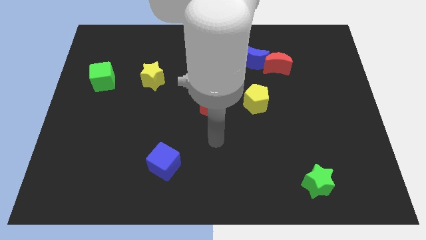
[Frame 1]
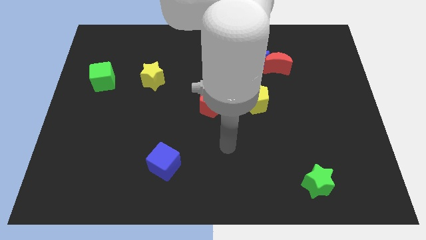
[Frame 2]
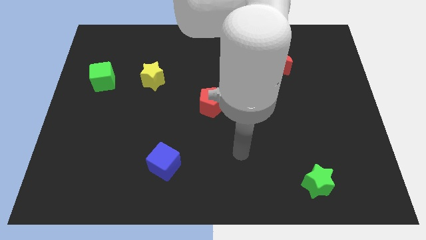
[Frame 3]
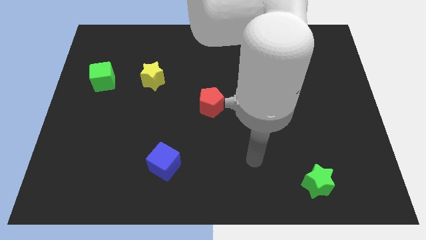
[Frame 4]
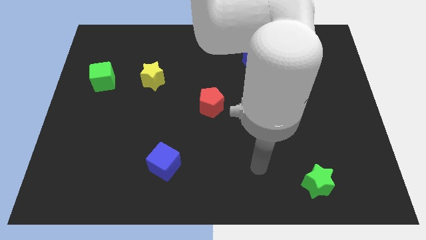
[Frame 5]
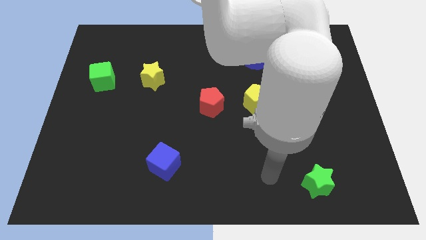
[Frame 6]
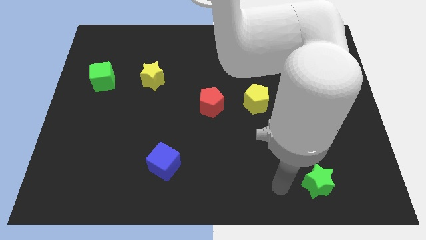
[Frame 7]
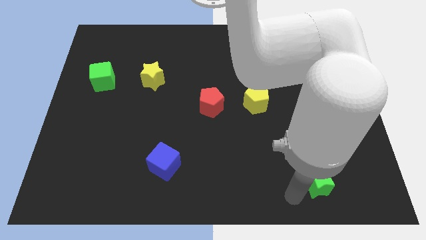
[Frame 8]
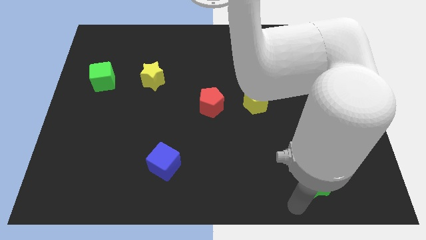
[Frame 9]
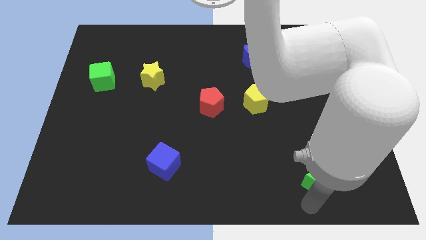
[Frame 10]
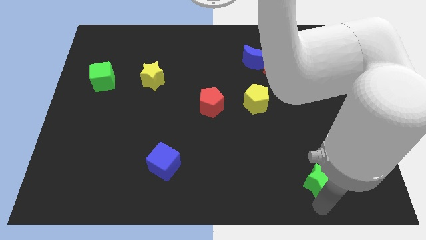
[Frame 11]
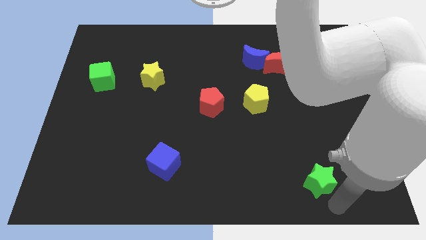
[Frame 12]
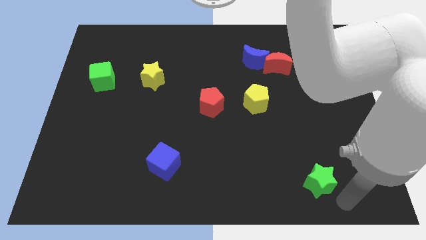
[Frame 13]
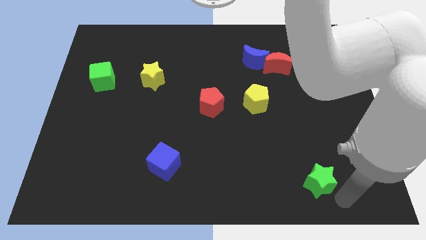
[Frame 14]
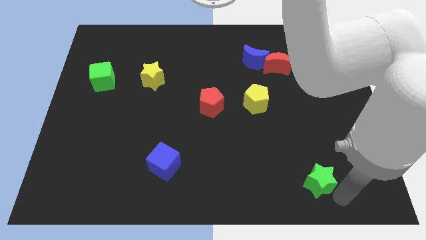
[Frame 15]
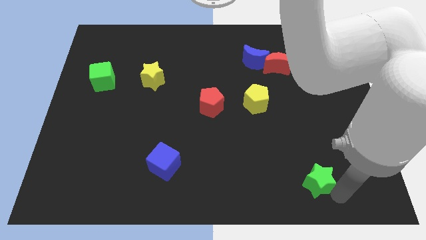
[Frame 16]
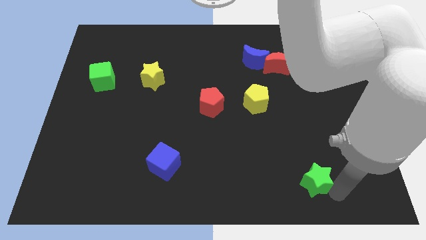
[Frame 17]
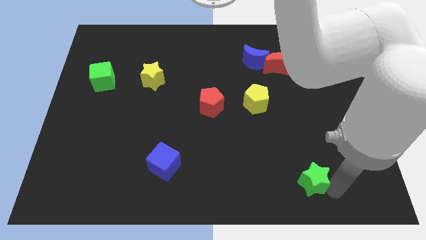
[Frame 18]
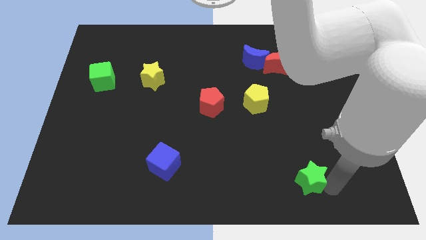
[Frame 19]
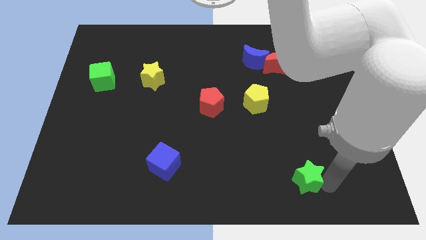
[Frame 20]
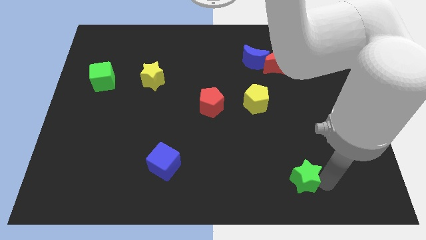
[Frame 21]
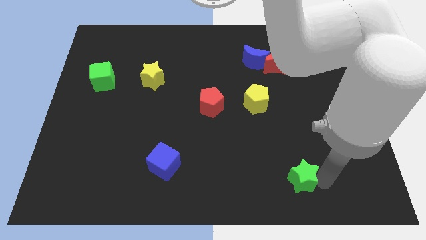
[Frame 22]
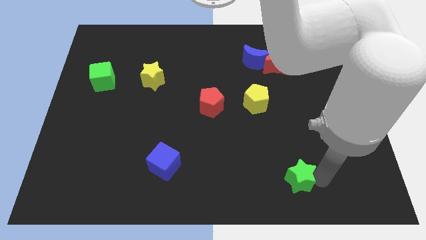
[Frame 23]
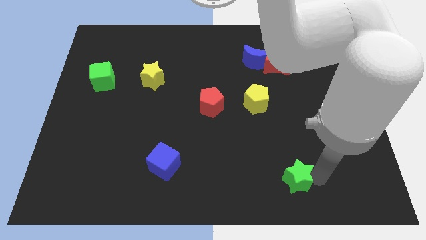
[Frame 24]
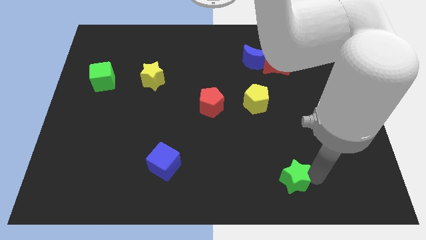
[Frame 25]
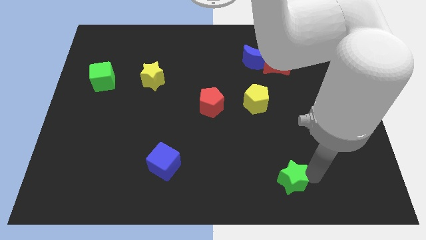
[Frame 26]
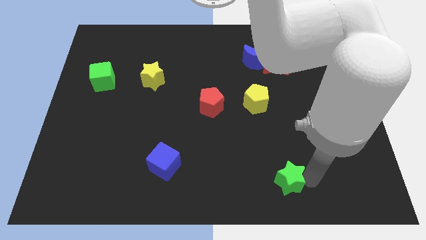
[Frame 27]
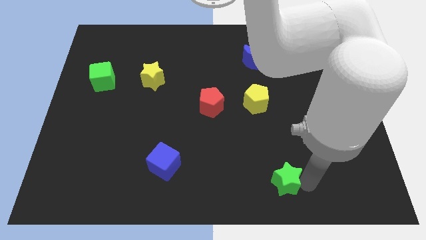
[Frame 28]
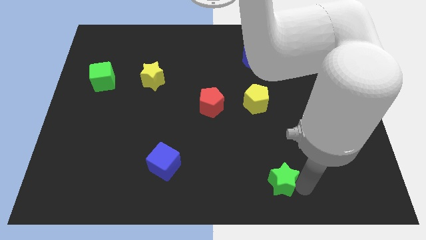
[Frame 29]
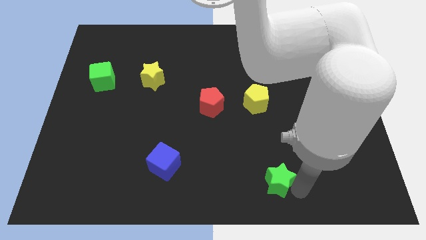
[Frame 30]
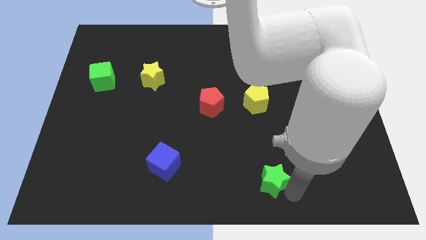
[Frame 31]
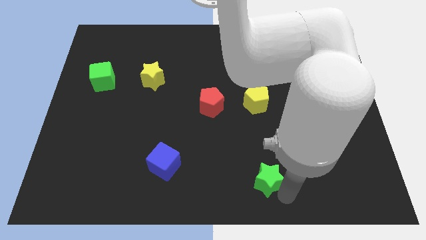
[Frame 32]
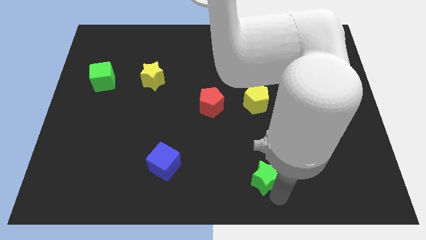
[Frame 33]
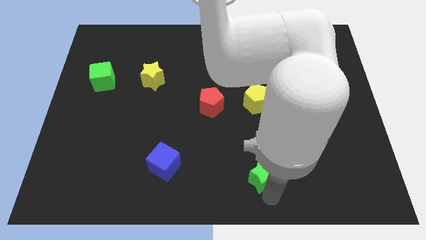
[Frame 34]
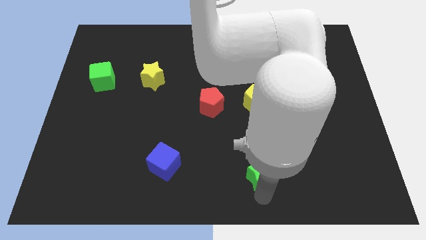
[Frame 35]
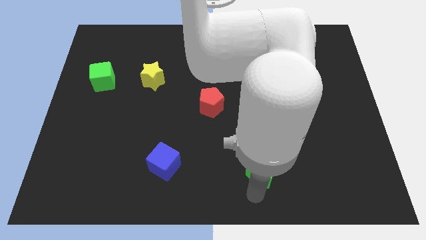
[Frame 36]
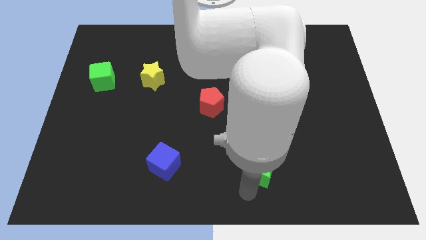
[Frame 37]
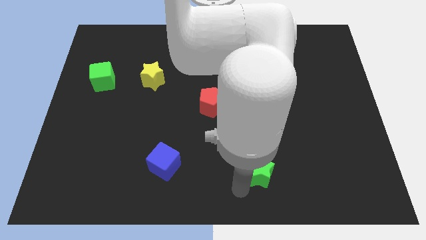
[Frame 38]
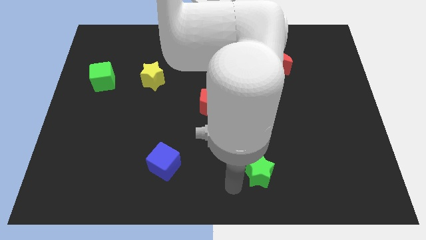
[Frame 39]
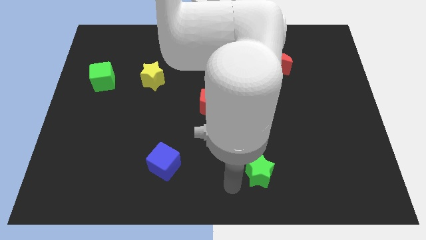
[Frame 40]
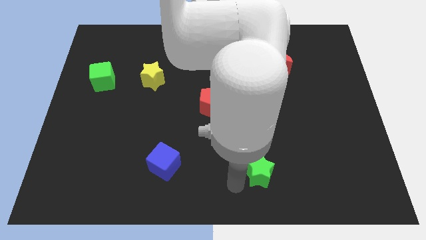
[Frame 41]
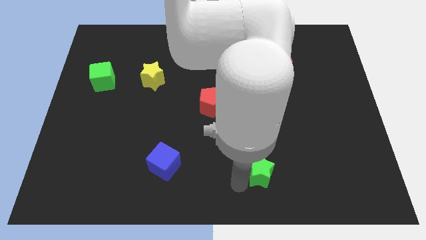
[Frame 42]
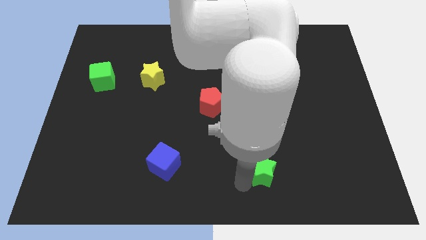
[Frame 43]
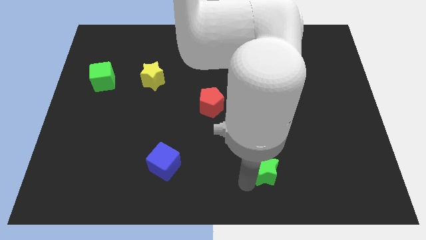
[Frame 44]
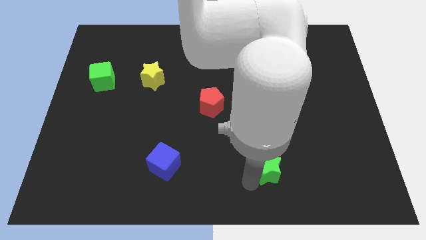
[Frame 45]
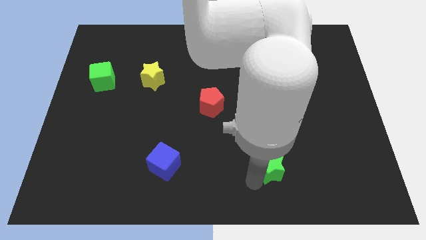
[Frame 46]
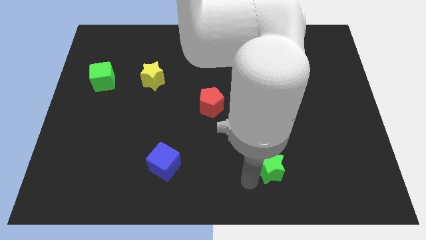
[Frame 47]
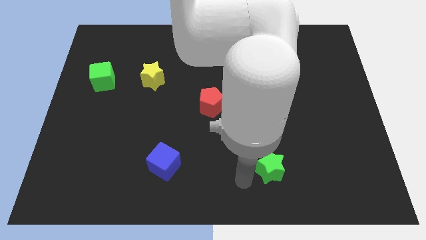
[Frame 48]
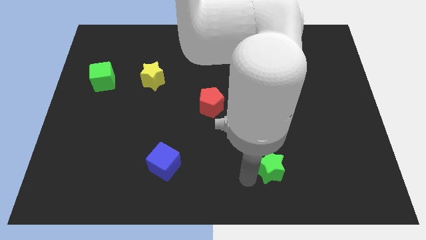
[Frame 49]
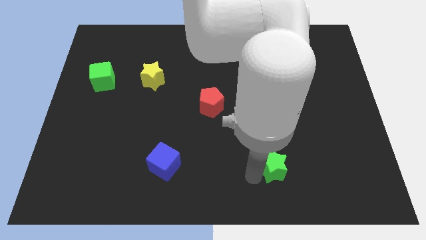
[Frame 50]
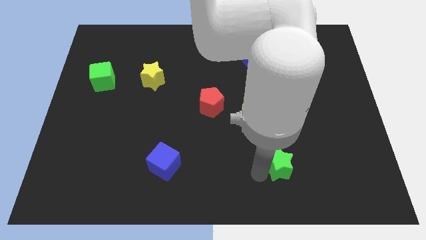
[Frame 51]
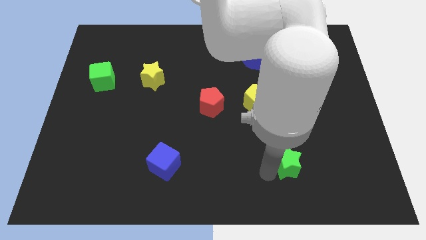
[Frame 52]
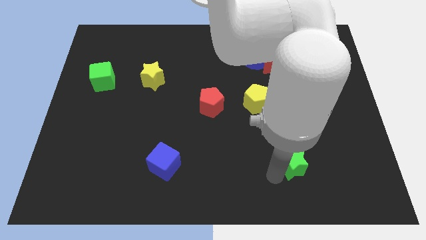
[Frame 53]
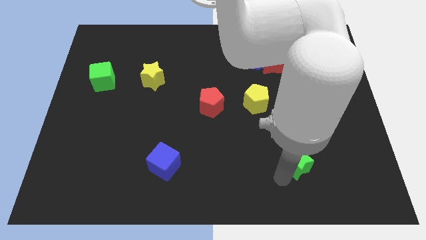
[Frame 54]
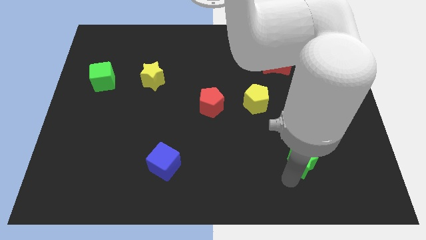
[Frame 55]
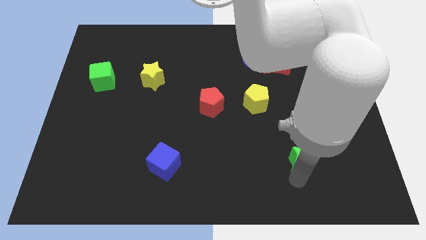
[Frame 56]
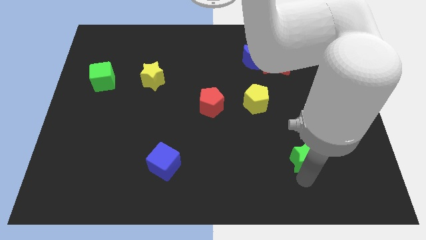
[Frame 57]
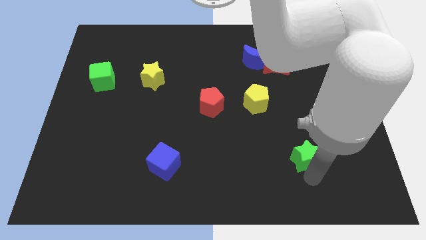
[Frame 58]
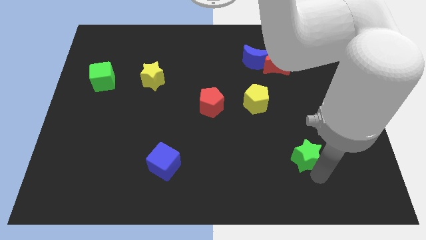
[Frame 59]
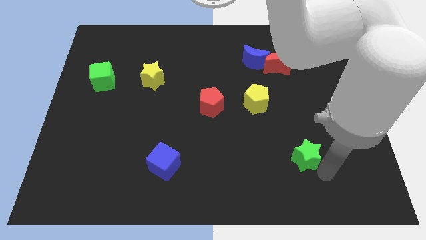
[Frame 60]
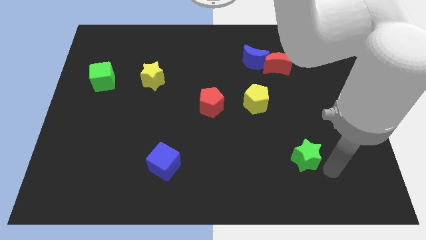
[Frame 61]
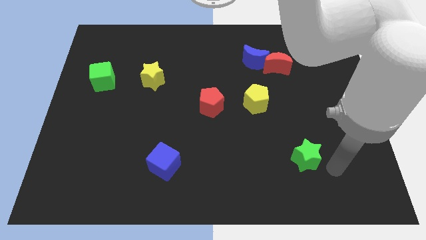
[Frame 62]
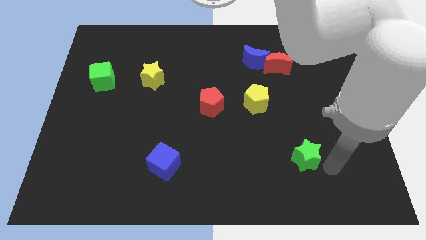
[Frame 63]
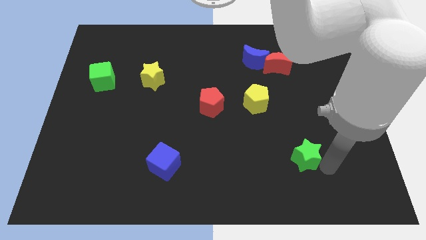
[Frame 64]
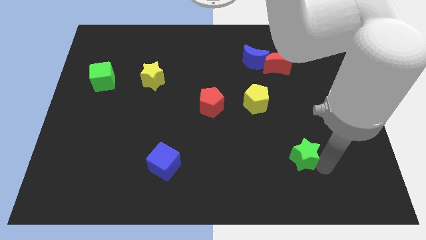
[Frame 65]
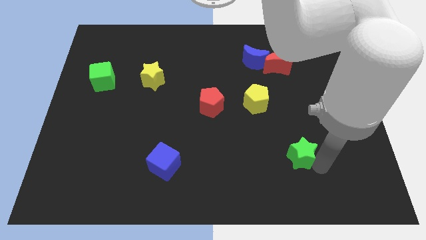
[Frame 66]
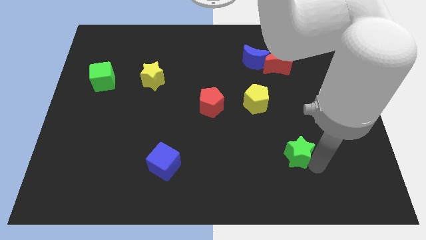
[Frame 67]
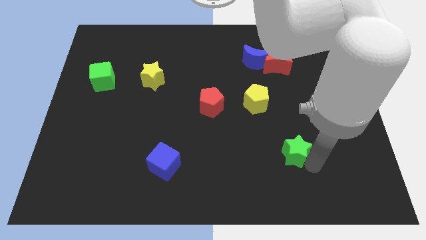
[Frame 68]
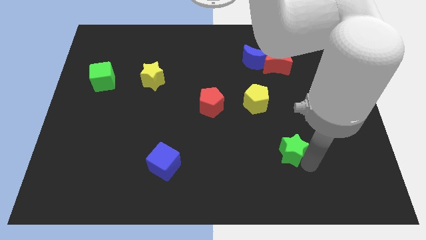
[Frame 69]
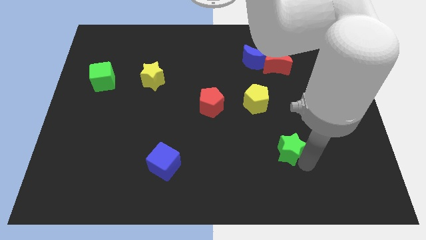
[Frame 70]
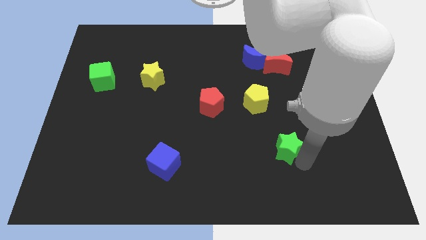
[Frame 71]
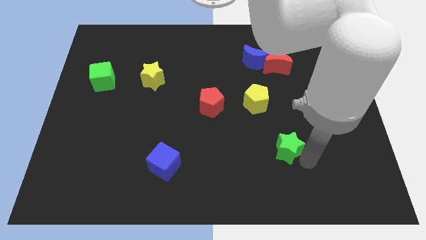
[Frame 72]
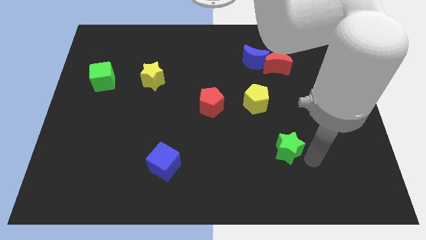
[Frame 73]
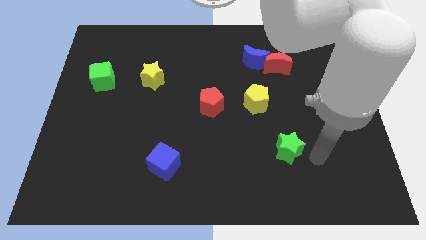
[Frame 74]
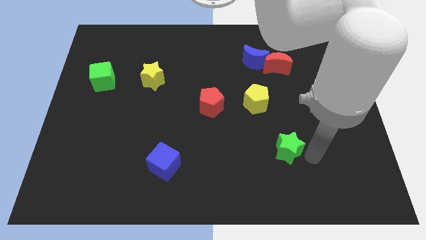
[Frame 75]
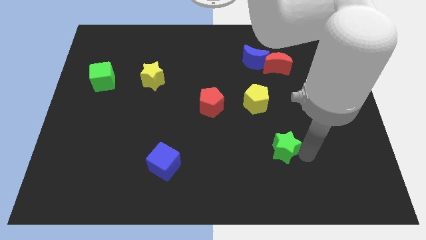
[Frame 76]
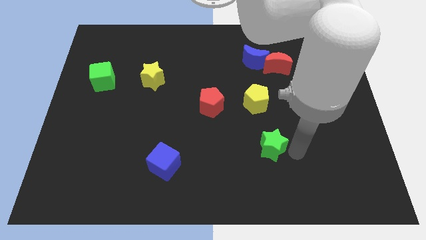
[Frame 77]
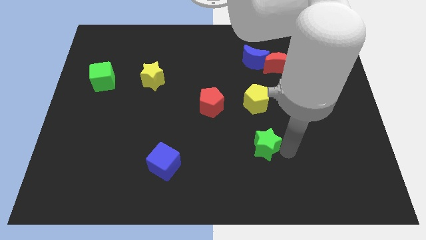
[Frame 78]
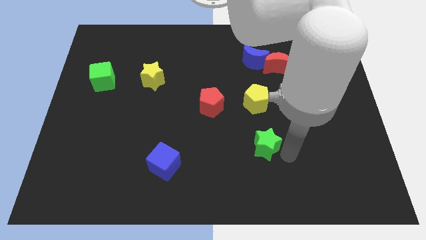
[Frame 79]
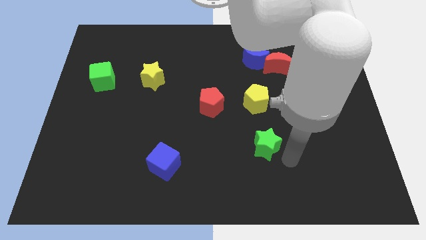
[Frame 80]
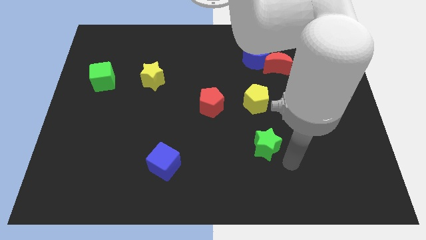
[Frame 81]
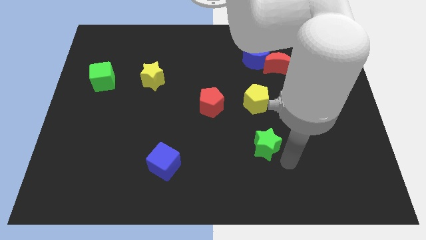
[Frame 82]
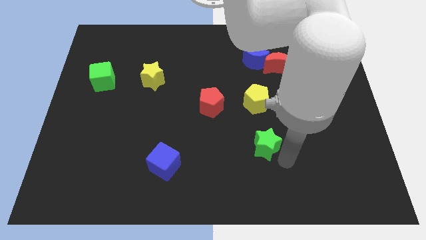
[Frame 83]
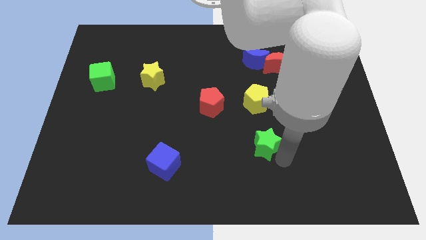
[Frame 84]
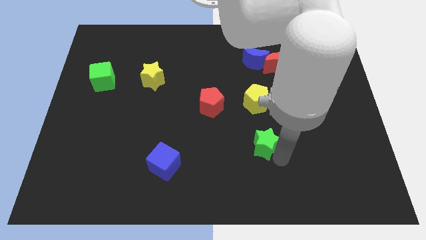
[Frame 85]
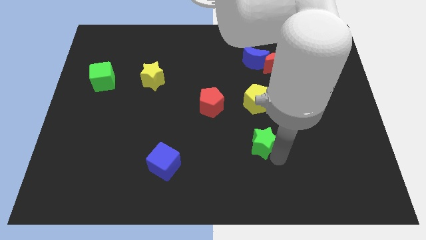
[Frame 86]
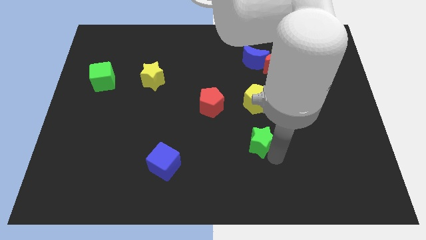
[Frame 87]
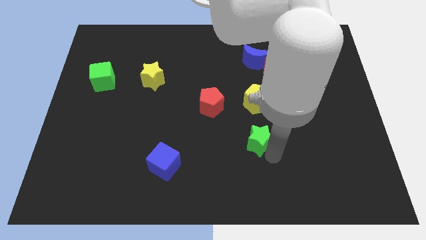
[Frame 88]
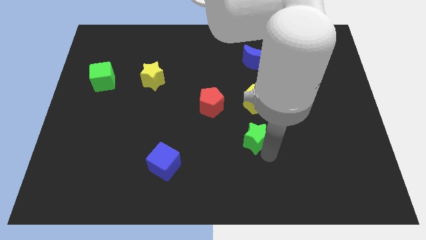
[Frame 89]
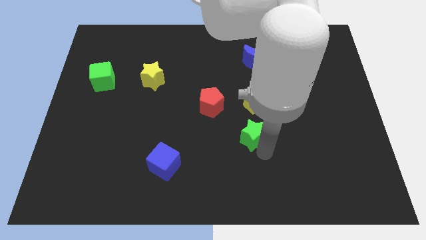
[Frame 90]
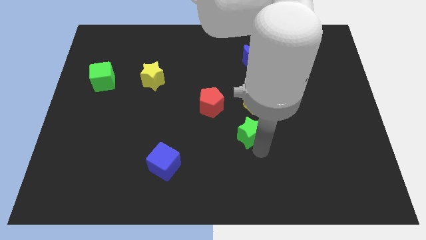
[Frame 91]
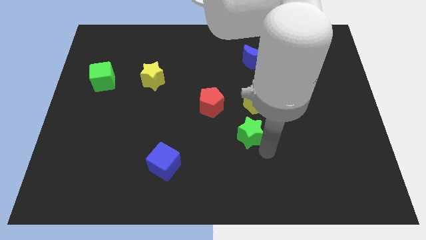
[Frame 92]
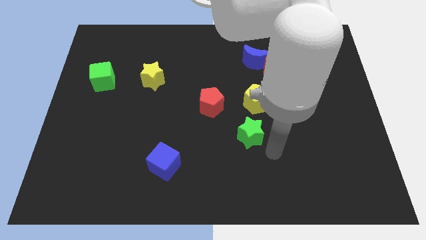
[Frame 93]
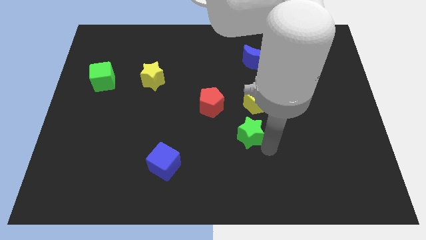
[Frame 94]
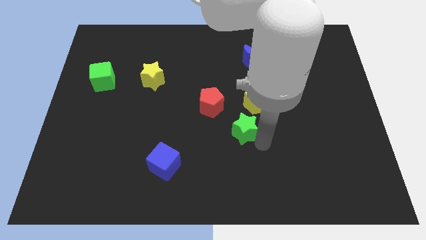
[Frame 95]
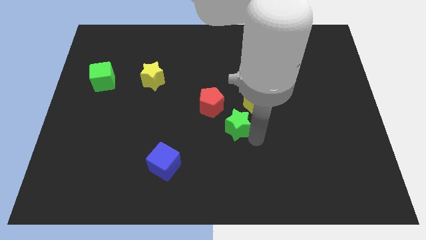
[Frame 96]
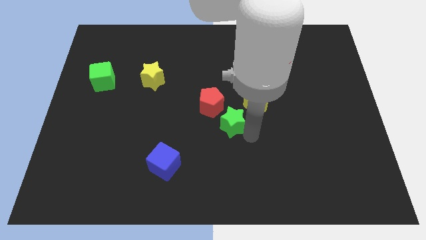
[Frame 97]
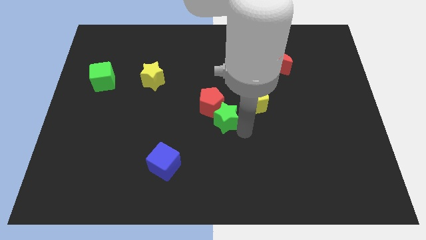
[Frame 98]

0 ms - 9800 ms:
slide the green star next to the red pentagon
